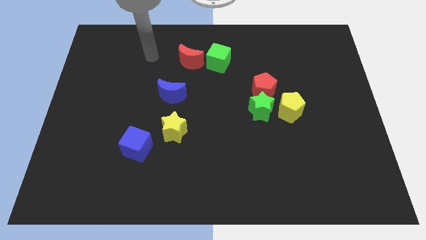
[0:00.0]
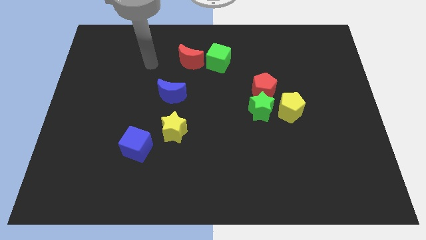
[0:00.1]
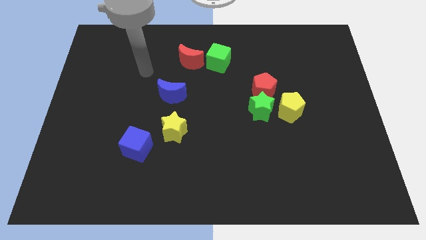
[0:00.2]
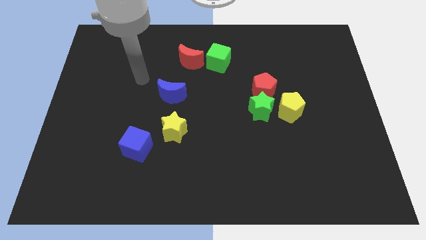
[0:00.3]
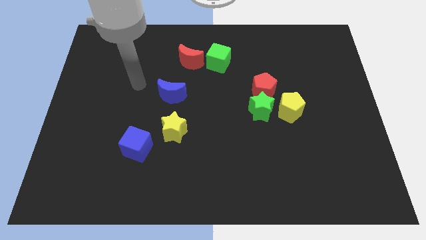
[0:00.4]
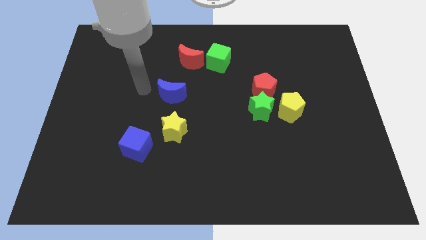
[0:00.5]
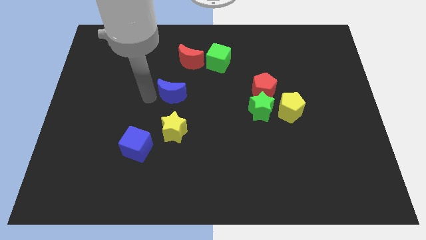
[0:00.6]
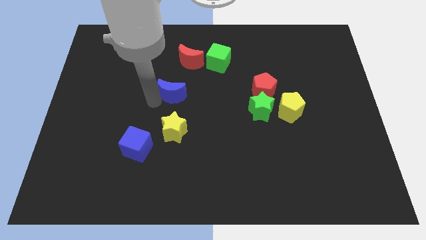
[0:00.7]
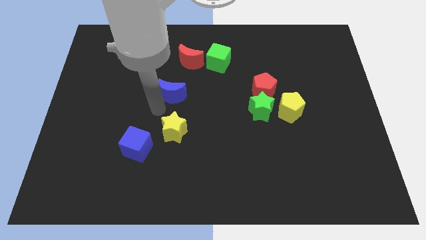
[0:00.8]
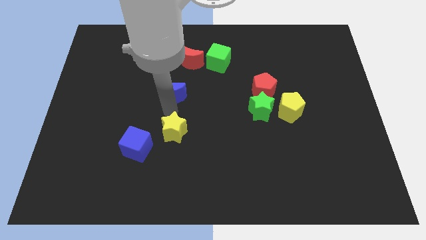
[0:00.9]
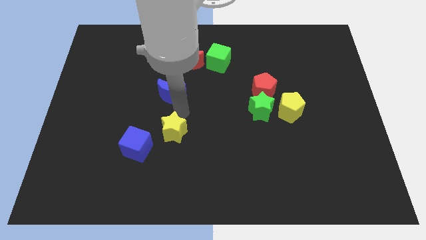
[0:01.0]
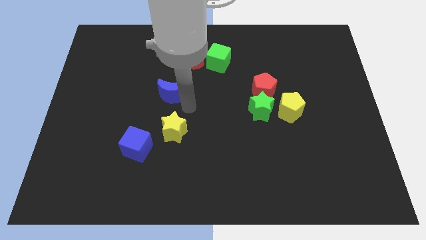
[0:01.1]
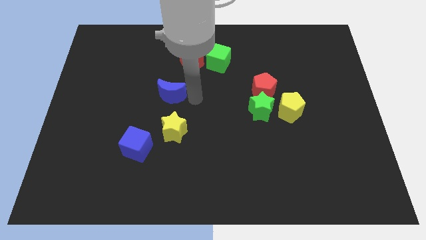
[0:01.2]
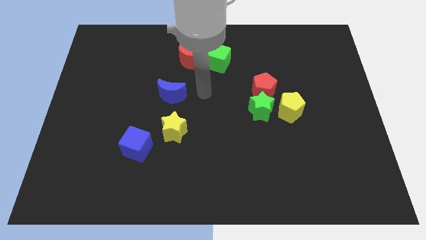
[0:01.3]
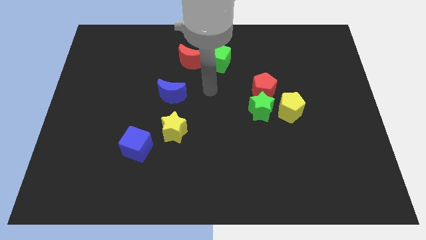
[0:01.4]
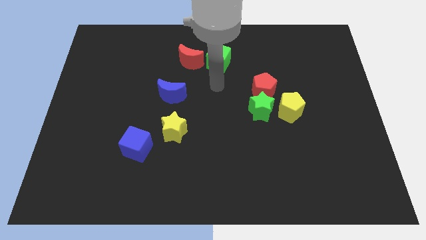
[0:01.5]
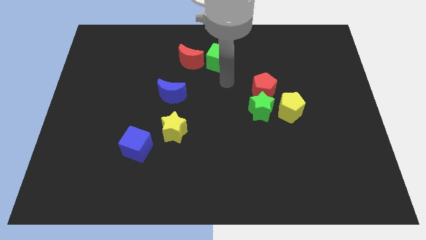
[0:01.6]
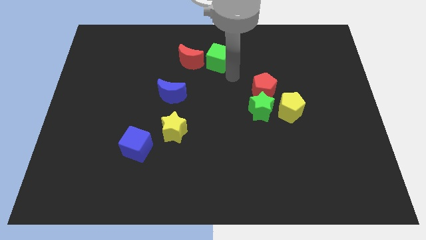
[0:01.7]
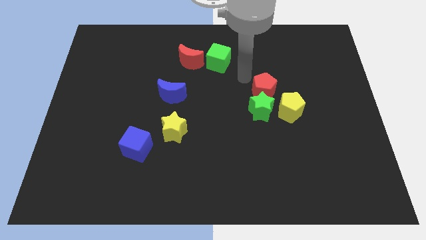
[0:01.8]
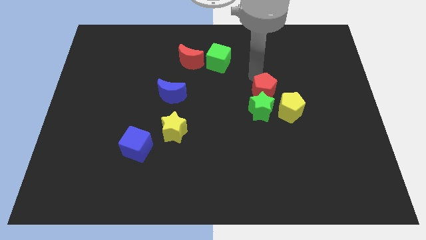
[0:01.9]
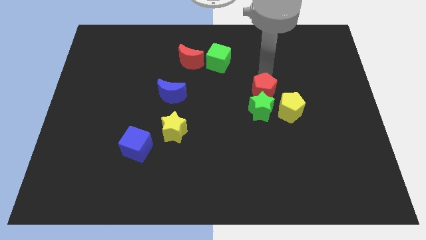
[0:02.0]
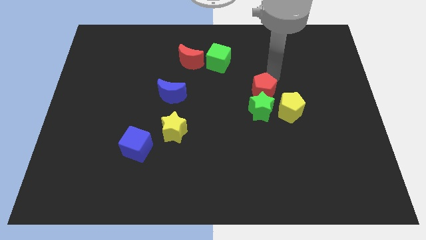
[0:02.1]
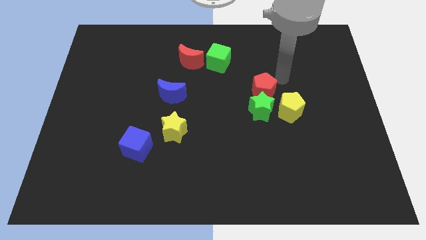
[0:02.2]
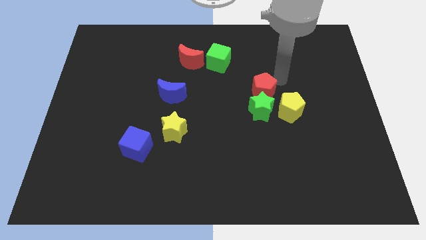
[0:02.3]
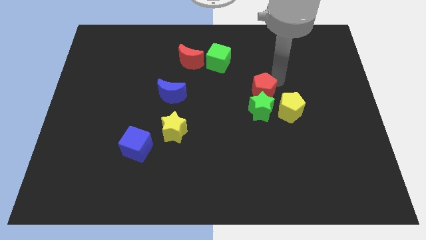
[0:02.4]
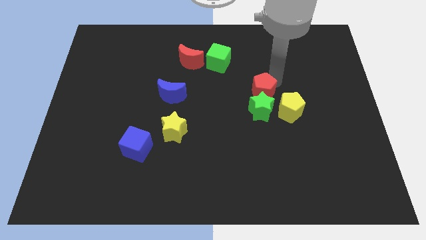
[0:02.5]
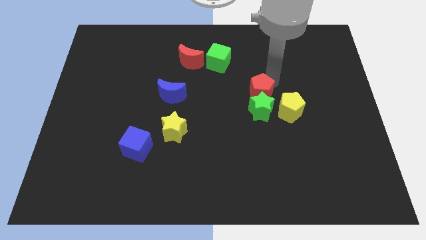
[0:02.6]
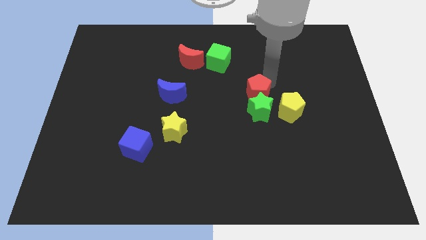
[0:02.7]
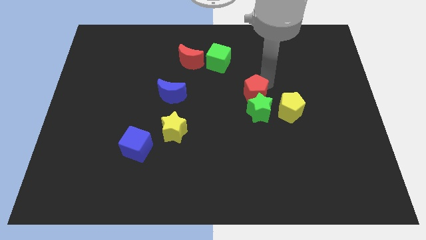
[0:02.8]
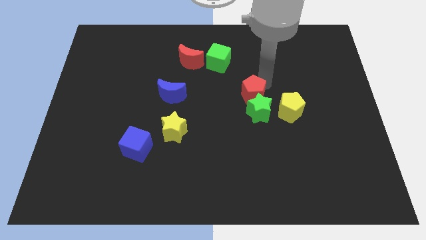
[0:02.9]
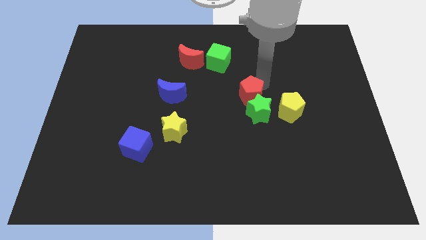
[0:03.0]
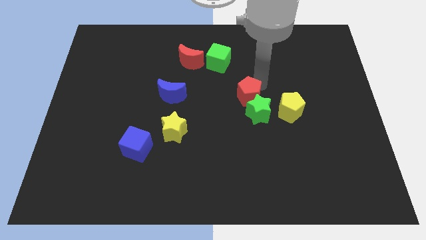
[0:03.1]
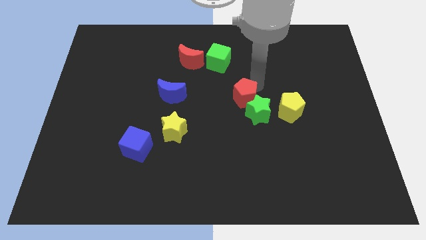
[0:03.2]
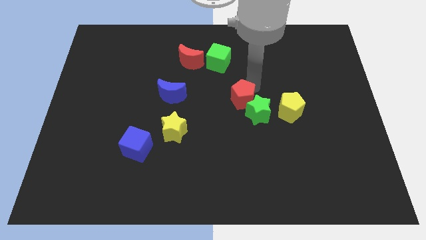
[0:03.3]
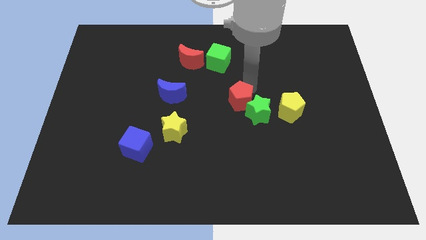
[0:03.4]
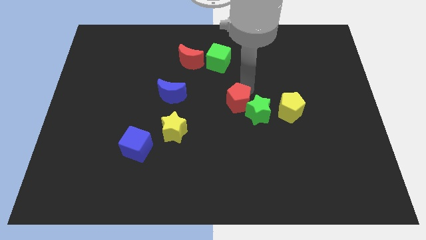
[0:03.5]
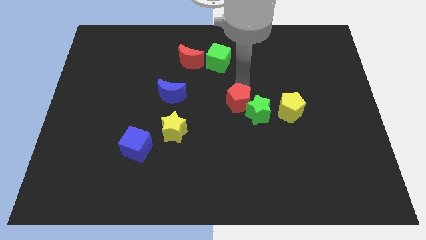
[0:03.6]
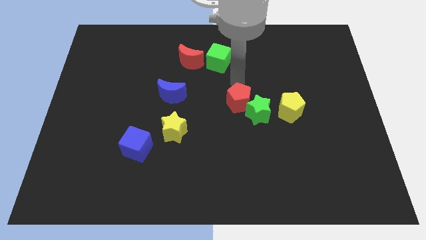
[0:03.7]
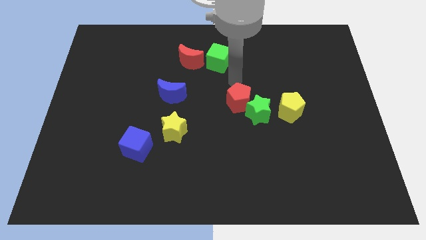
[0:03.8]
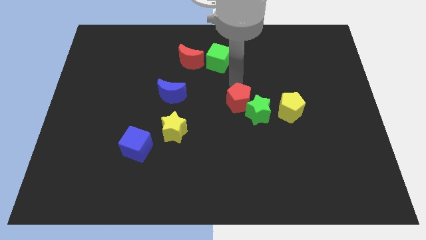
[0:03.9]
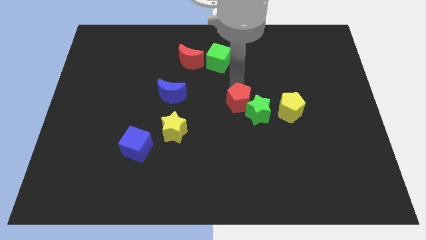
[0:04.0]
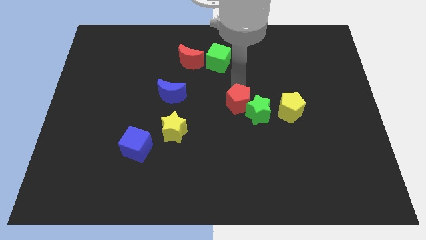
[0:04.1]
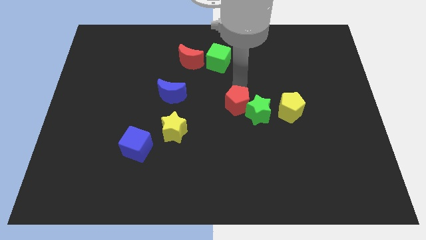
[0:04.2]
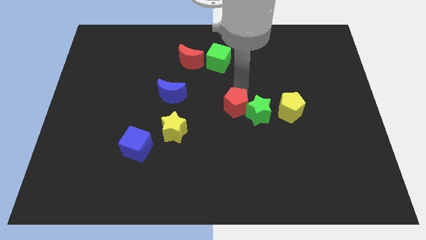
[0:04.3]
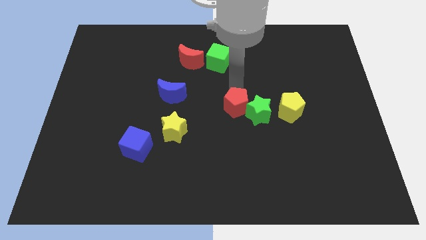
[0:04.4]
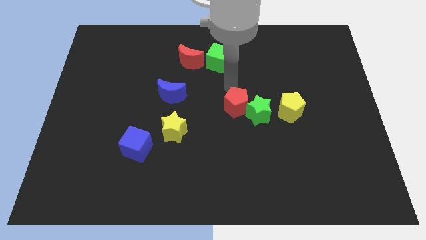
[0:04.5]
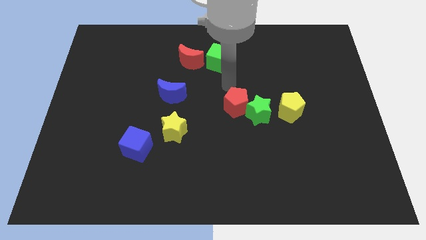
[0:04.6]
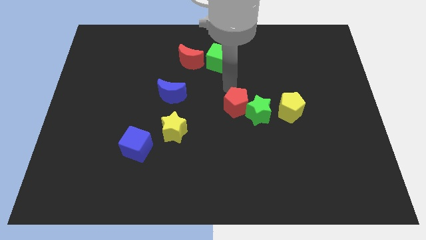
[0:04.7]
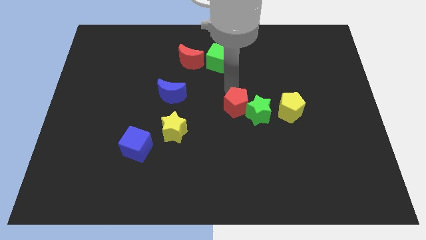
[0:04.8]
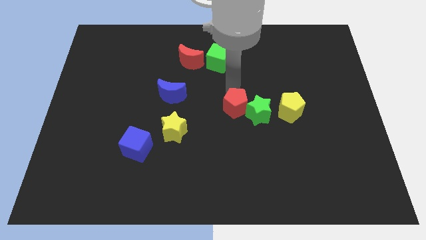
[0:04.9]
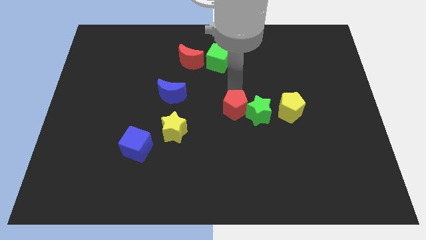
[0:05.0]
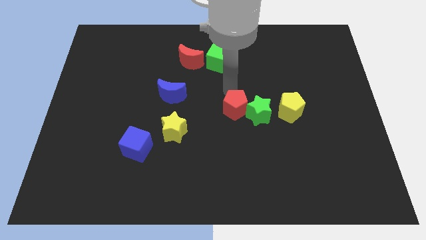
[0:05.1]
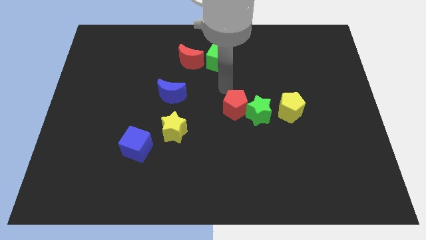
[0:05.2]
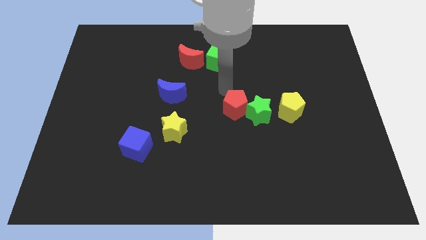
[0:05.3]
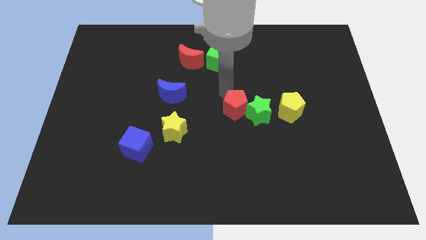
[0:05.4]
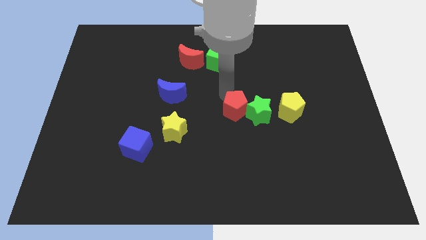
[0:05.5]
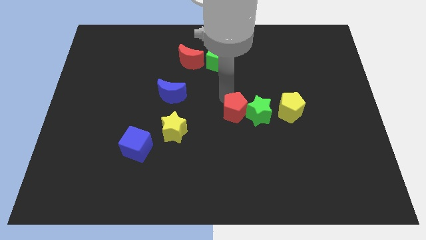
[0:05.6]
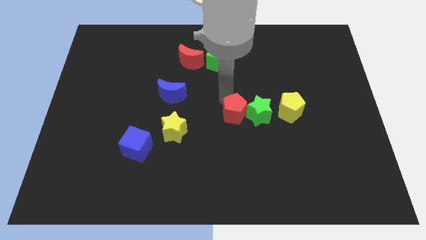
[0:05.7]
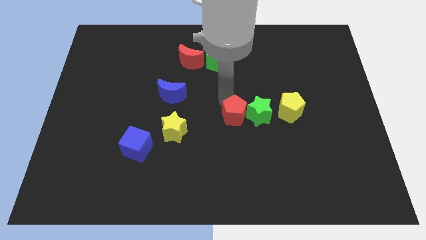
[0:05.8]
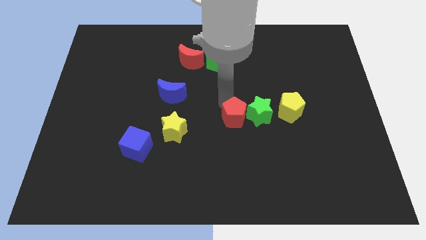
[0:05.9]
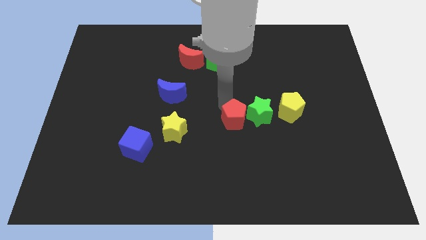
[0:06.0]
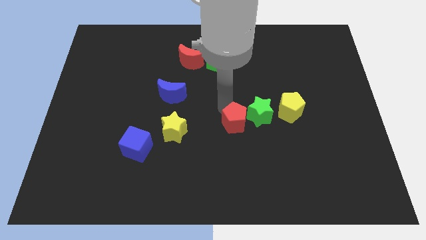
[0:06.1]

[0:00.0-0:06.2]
push the red pentagon a little bit down

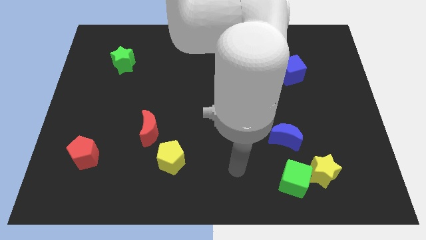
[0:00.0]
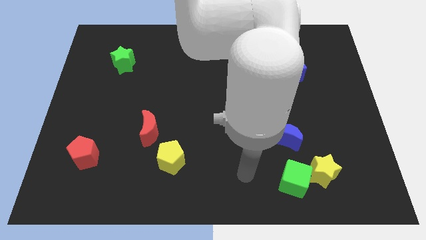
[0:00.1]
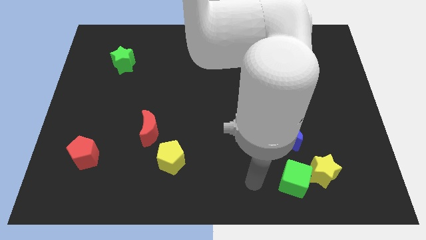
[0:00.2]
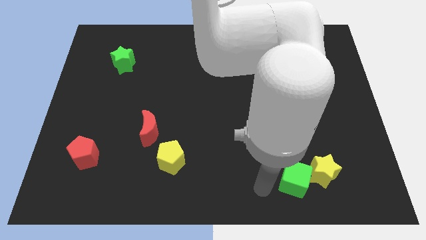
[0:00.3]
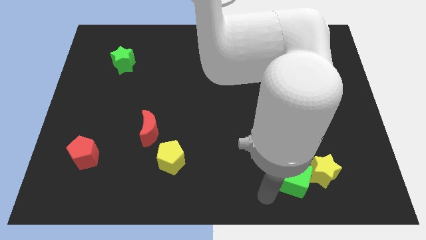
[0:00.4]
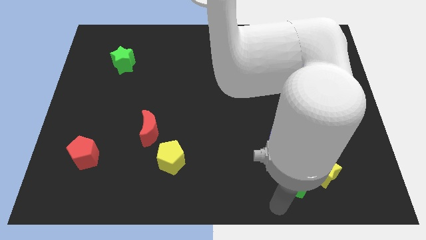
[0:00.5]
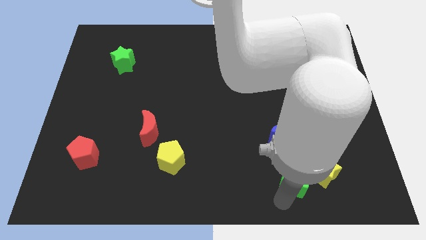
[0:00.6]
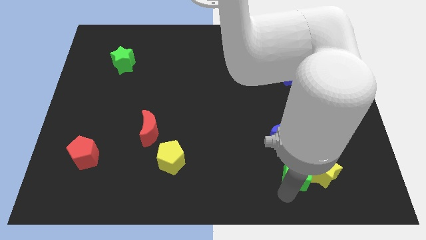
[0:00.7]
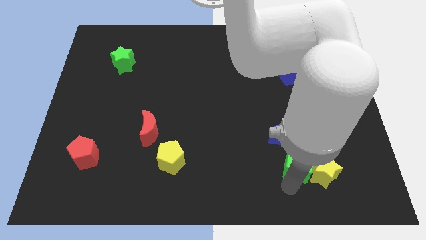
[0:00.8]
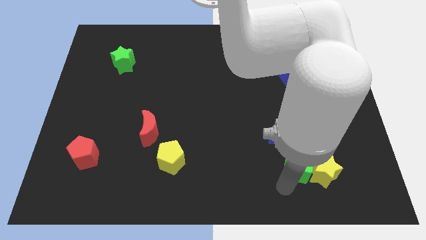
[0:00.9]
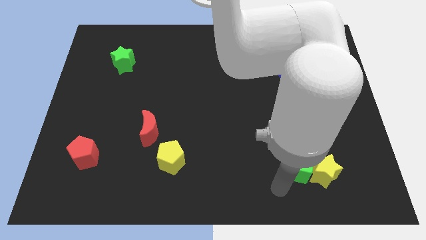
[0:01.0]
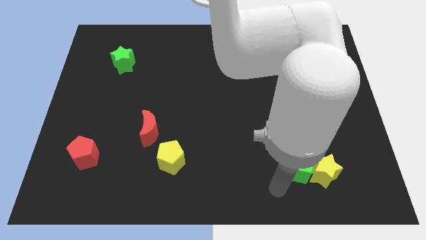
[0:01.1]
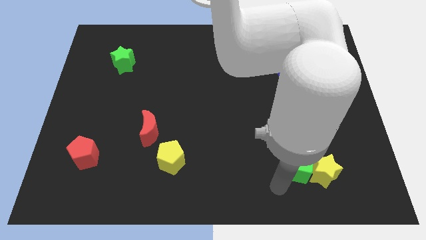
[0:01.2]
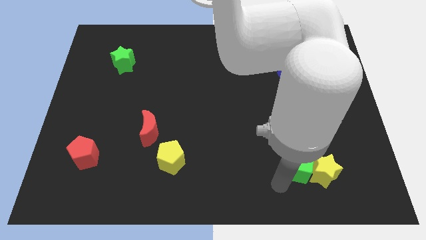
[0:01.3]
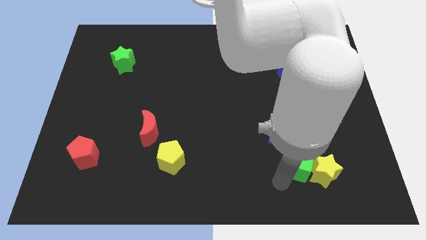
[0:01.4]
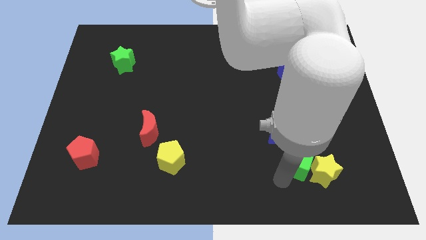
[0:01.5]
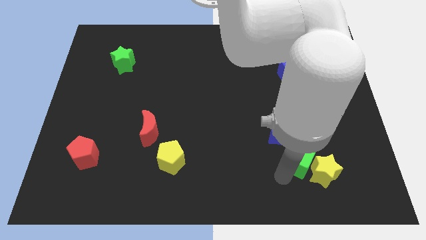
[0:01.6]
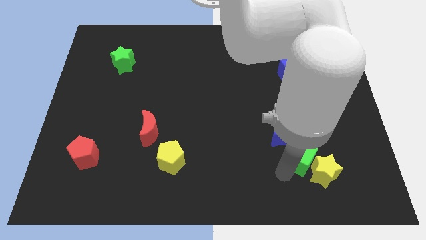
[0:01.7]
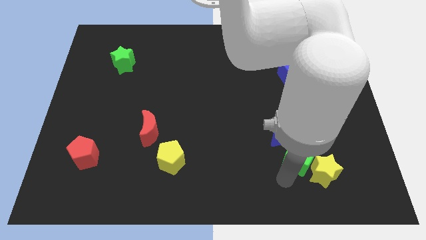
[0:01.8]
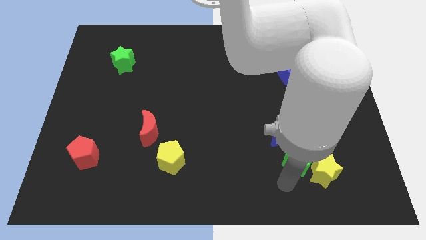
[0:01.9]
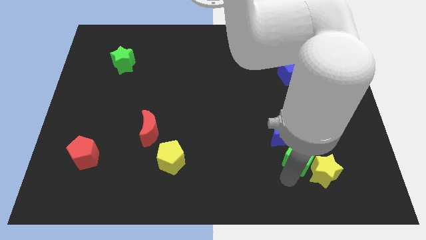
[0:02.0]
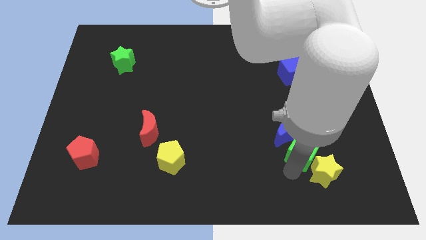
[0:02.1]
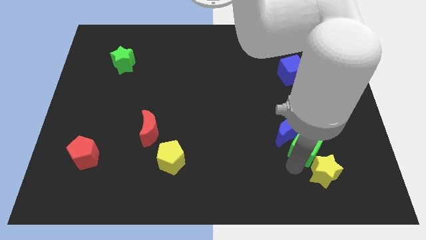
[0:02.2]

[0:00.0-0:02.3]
slightly move the green cube up
